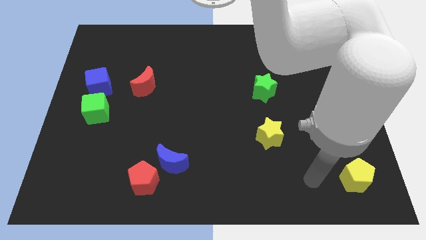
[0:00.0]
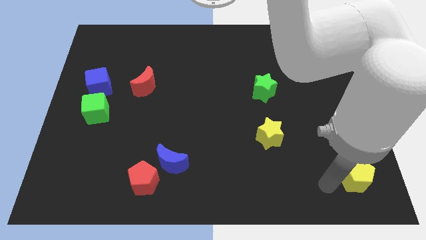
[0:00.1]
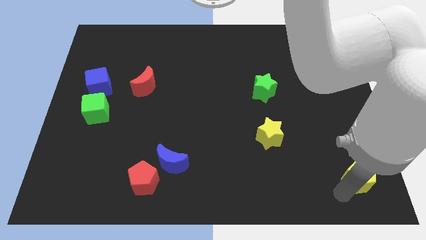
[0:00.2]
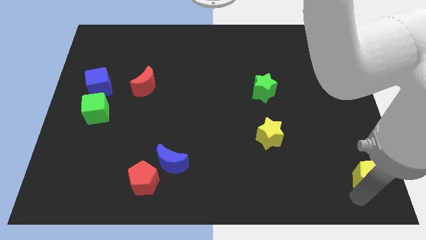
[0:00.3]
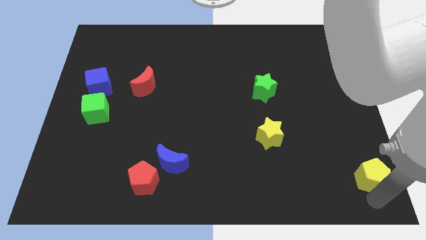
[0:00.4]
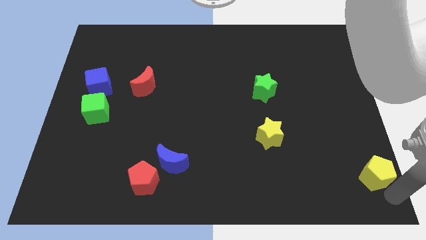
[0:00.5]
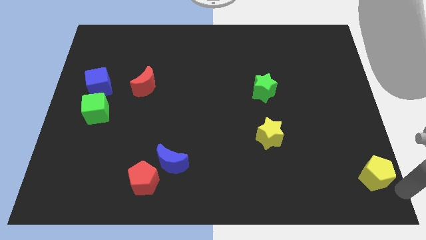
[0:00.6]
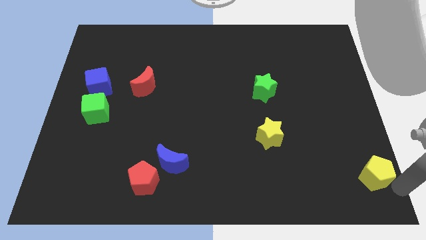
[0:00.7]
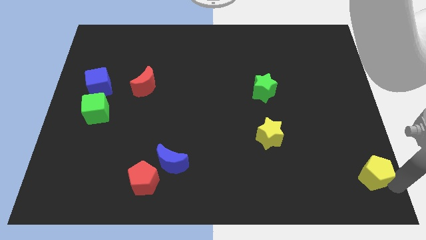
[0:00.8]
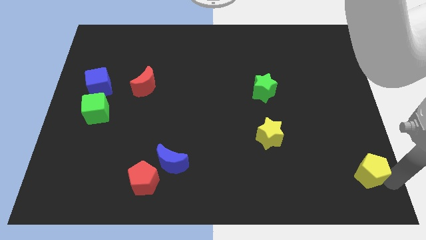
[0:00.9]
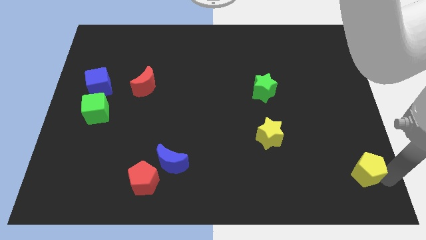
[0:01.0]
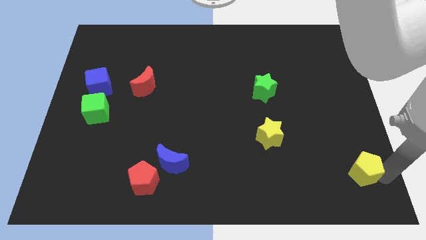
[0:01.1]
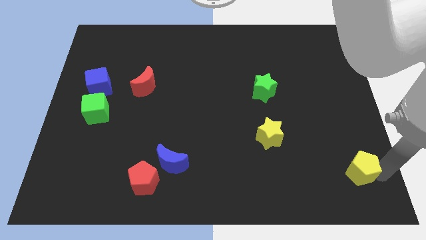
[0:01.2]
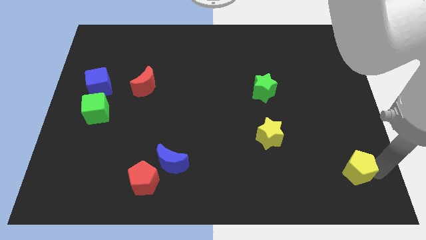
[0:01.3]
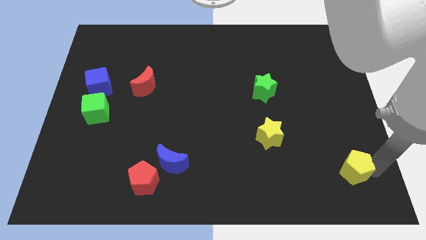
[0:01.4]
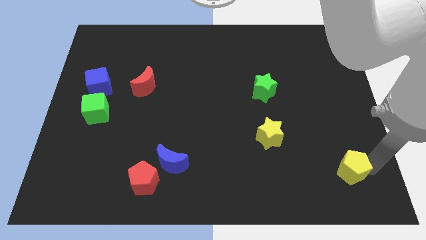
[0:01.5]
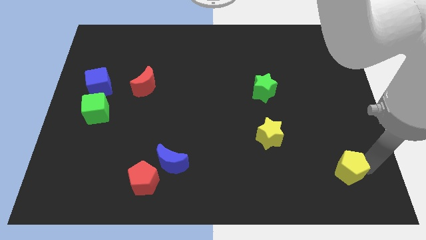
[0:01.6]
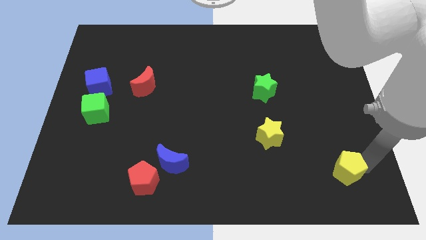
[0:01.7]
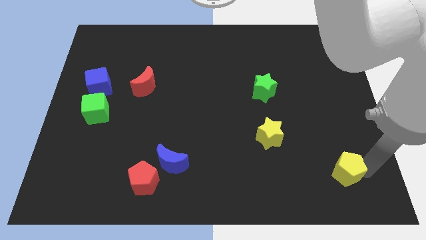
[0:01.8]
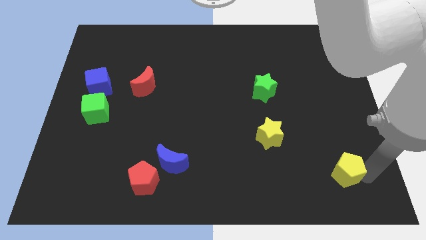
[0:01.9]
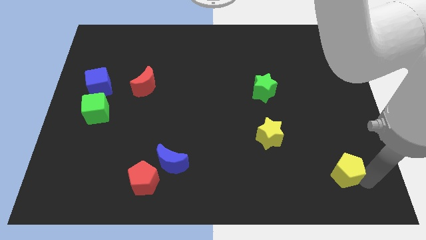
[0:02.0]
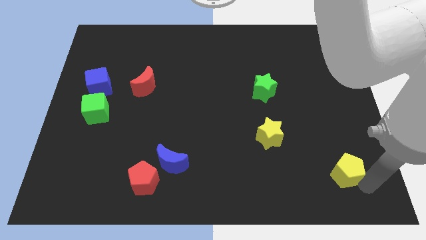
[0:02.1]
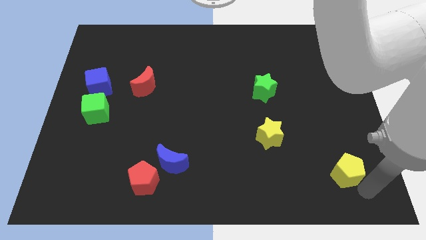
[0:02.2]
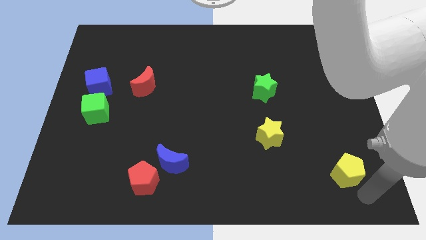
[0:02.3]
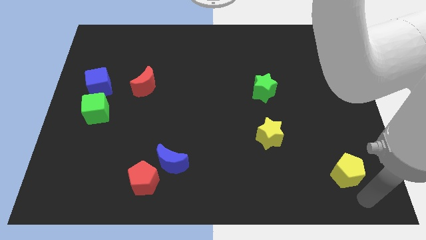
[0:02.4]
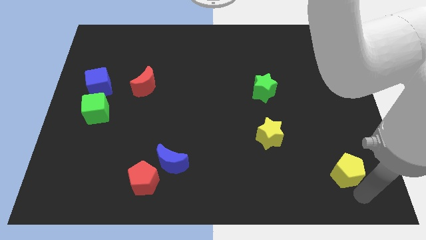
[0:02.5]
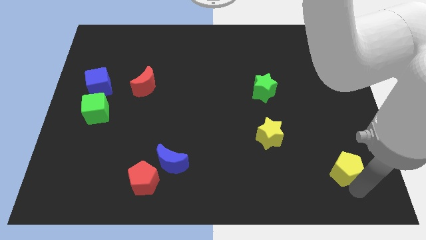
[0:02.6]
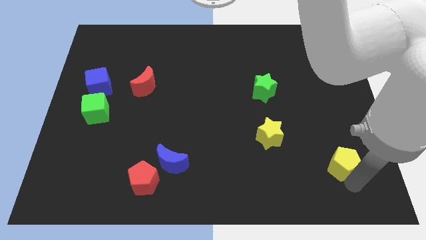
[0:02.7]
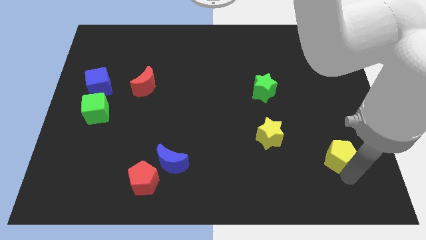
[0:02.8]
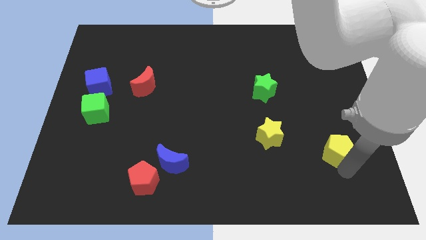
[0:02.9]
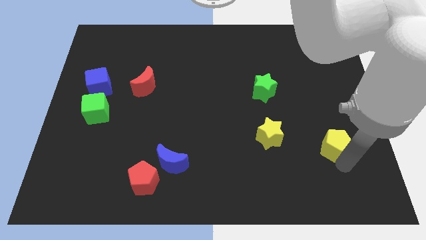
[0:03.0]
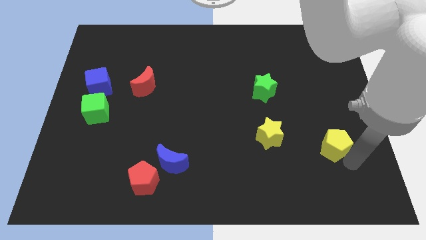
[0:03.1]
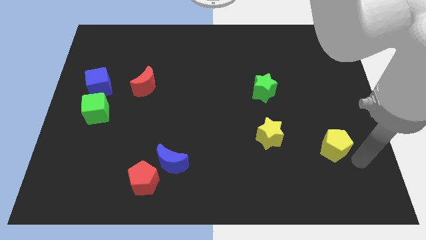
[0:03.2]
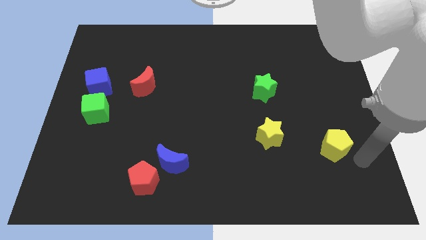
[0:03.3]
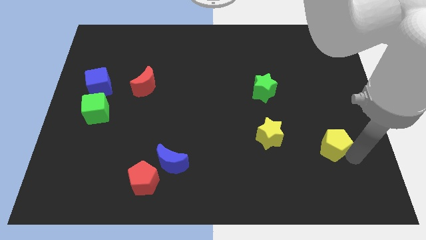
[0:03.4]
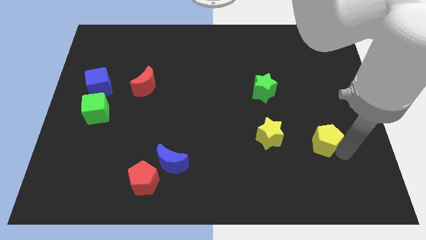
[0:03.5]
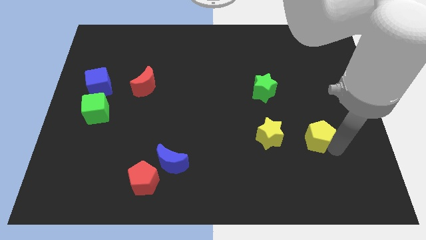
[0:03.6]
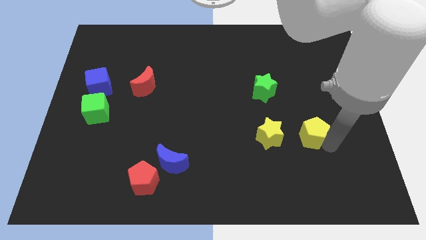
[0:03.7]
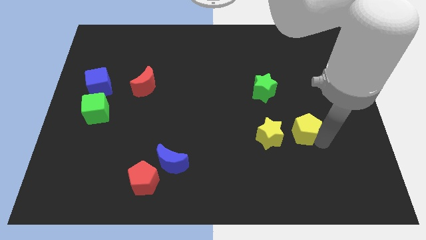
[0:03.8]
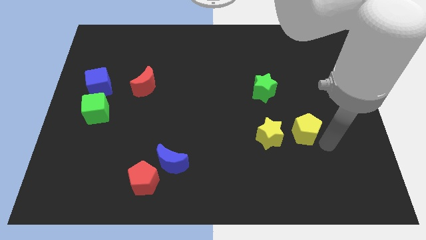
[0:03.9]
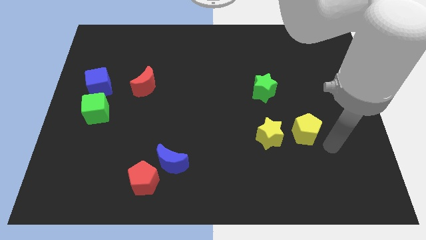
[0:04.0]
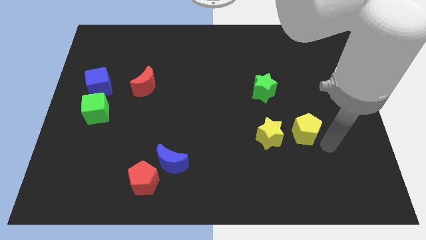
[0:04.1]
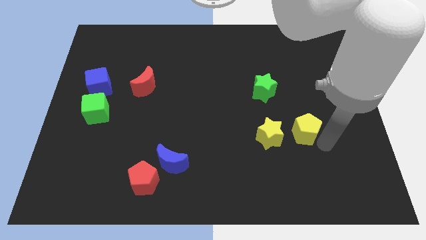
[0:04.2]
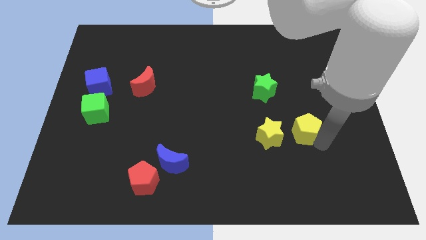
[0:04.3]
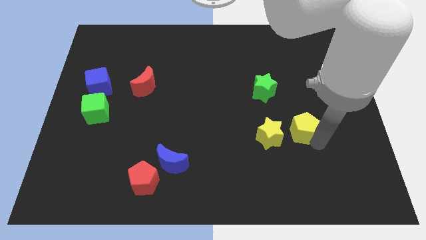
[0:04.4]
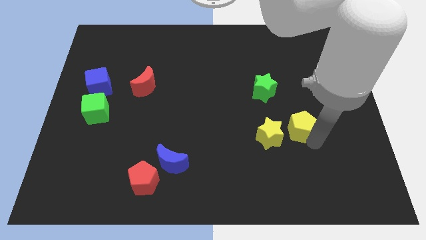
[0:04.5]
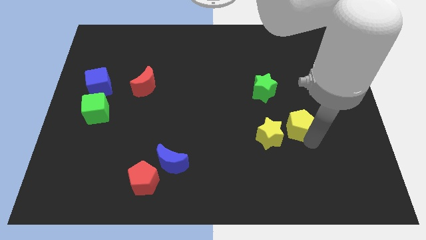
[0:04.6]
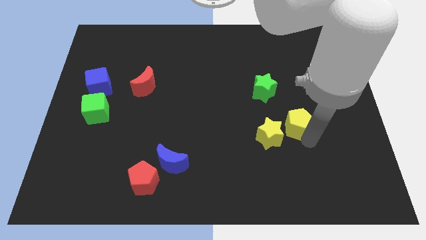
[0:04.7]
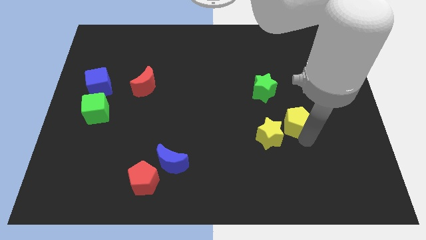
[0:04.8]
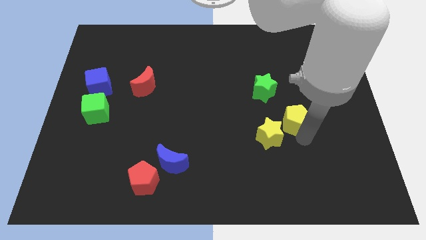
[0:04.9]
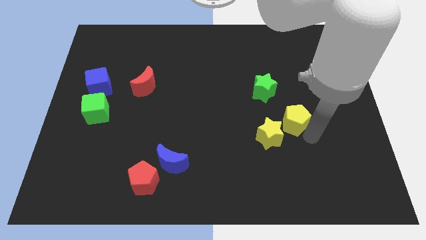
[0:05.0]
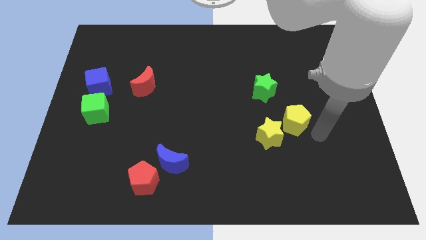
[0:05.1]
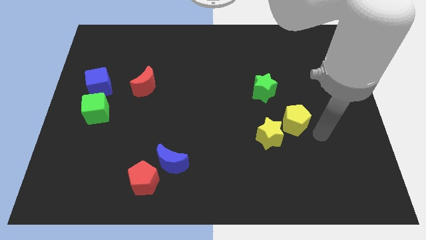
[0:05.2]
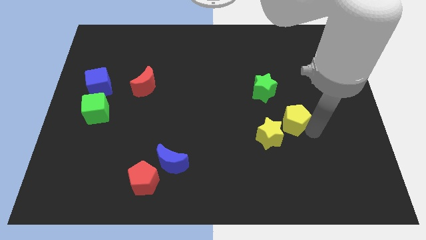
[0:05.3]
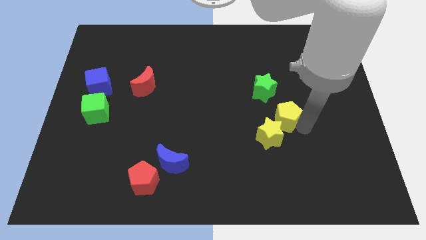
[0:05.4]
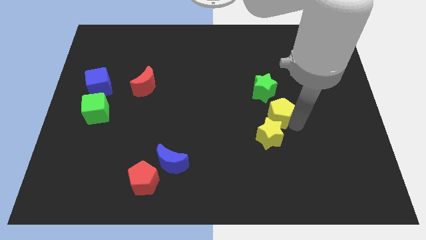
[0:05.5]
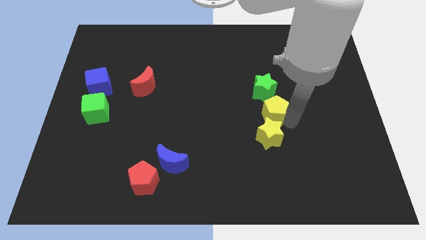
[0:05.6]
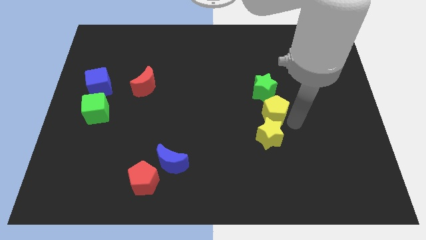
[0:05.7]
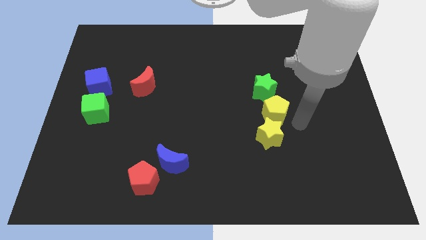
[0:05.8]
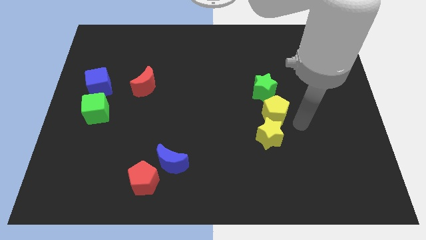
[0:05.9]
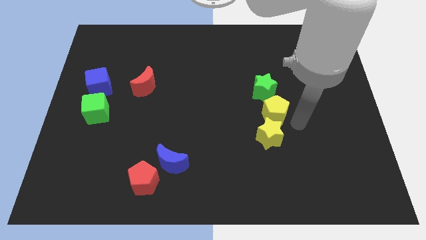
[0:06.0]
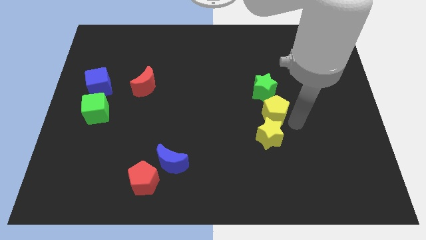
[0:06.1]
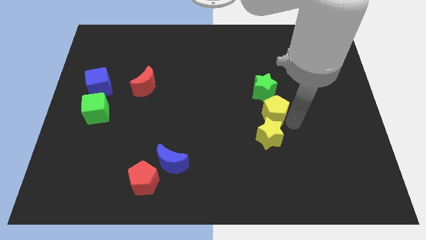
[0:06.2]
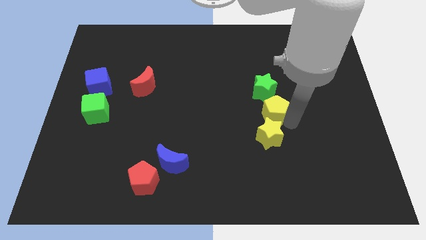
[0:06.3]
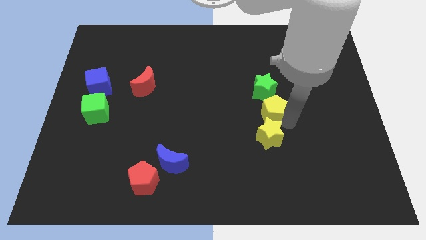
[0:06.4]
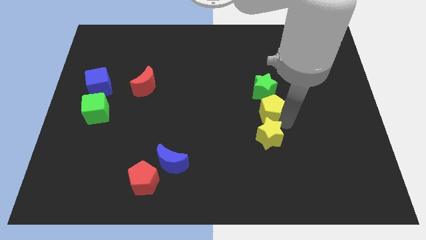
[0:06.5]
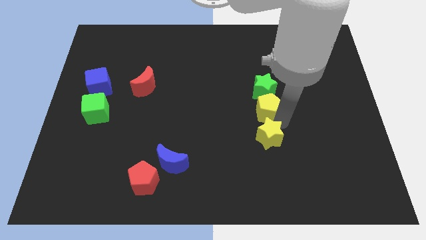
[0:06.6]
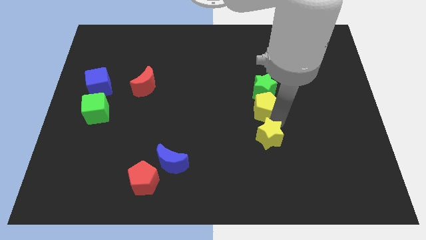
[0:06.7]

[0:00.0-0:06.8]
slide the yellow pentagon to the center of the board
